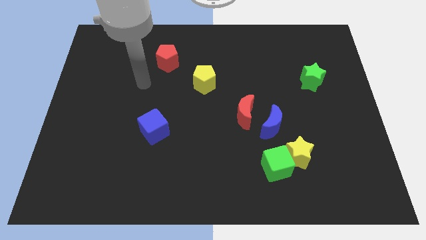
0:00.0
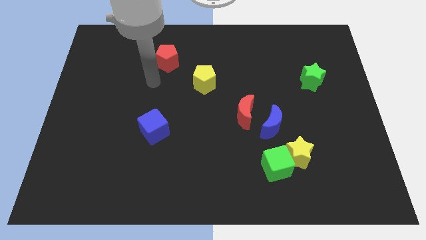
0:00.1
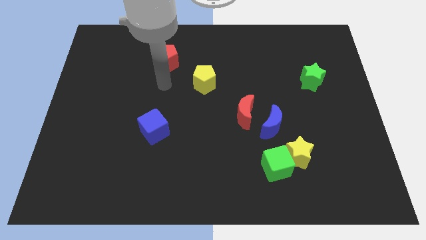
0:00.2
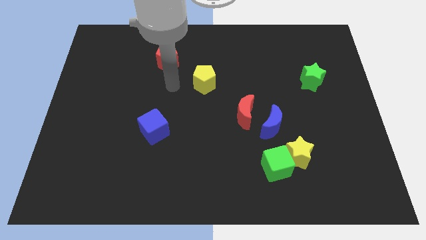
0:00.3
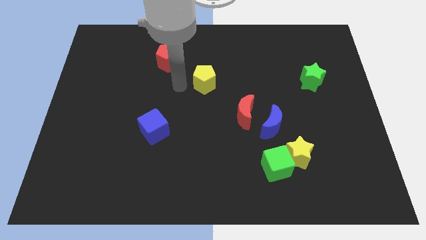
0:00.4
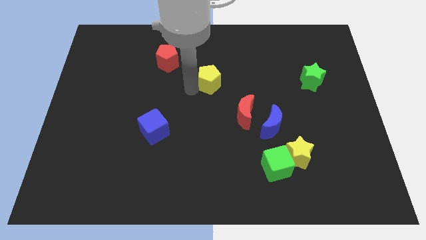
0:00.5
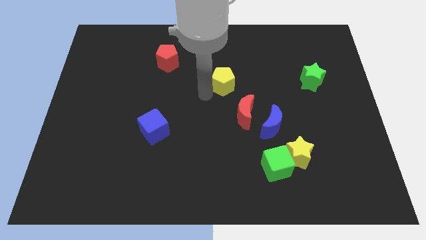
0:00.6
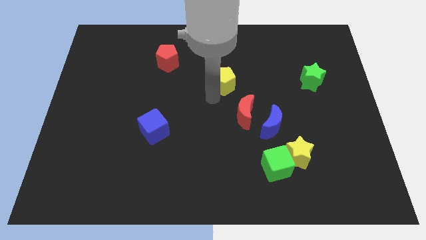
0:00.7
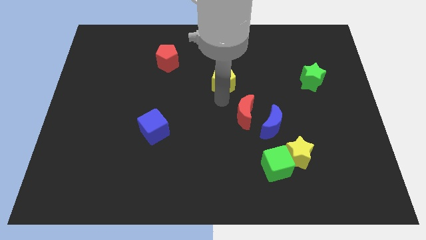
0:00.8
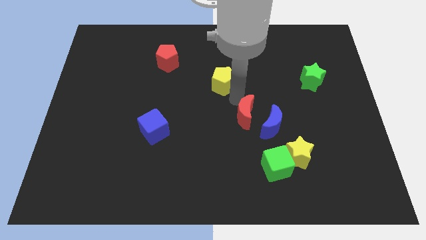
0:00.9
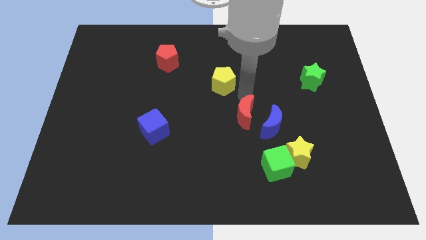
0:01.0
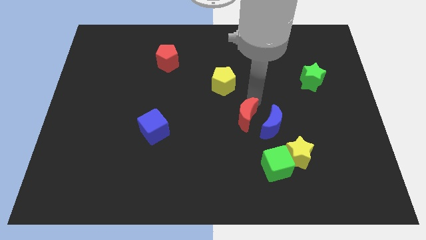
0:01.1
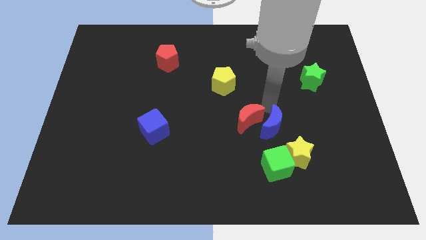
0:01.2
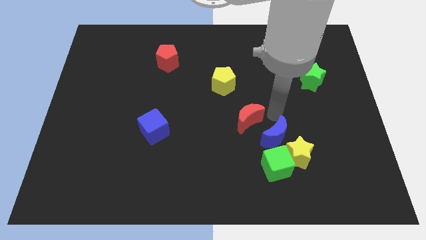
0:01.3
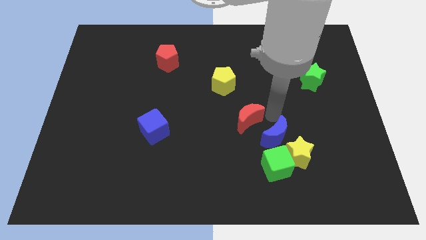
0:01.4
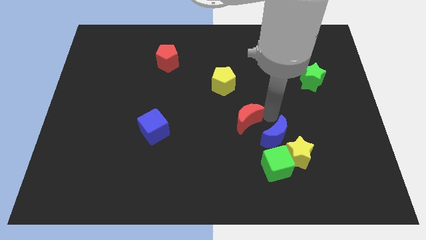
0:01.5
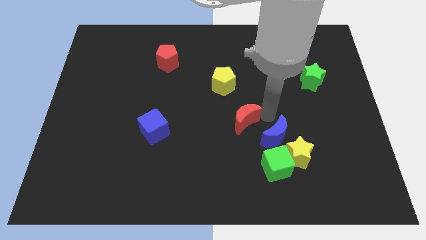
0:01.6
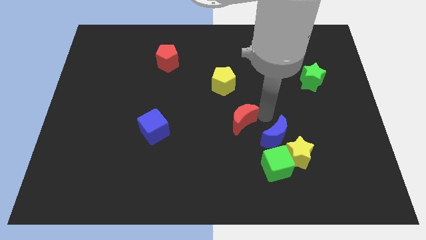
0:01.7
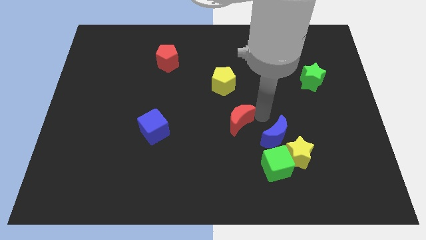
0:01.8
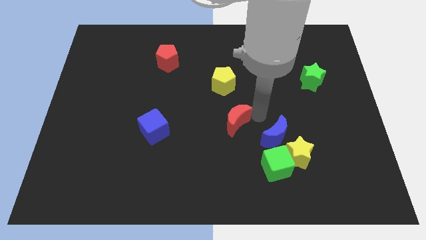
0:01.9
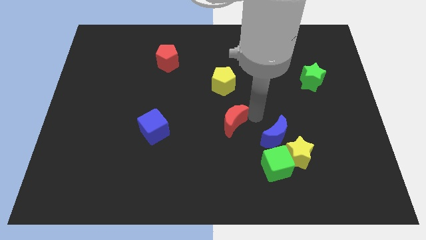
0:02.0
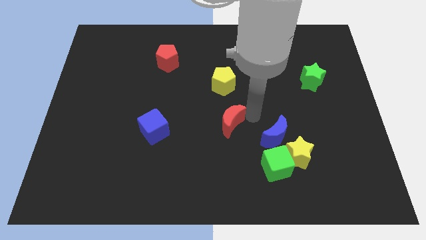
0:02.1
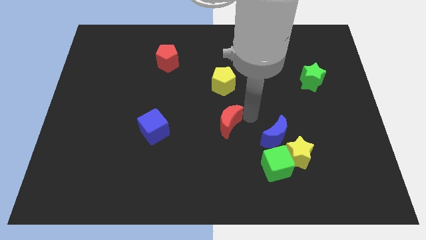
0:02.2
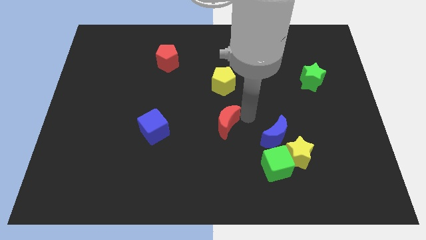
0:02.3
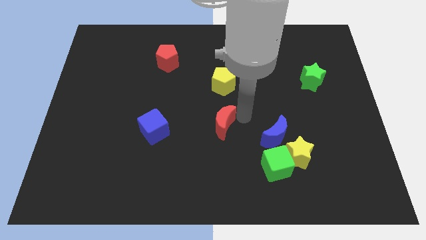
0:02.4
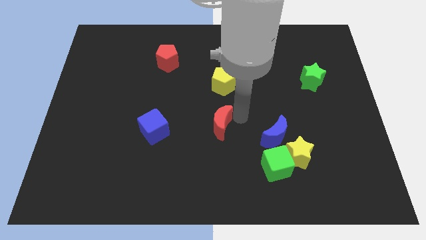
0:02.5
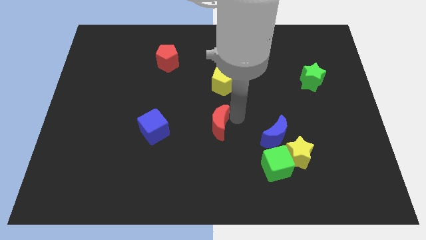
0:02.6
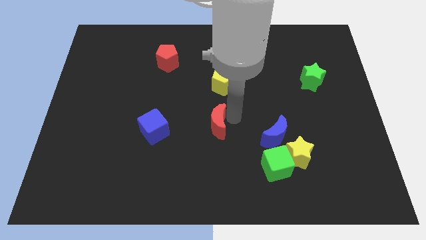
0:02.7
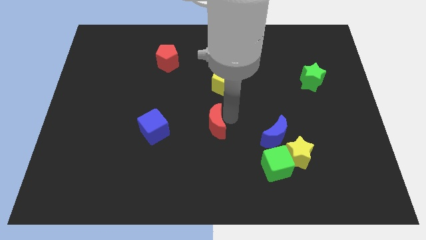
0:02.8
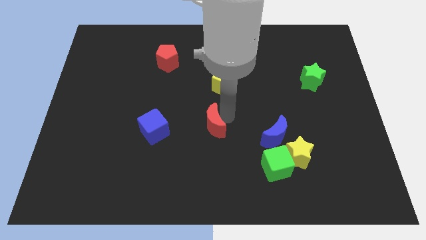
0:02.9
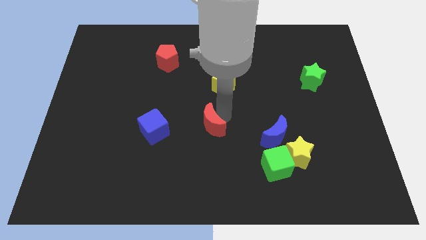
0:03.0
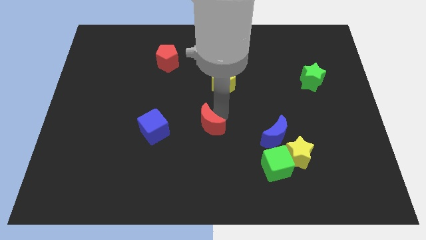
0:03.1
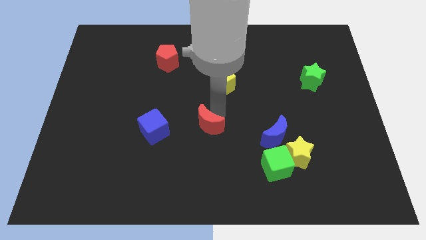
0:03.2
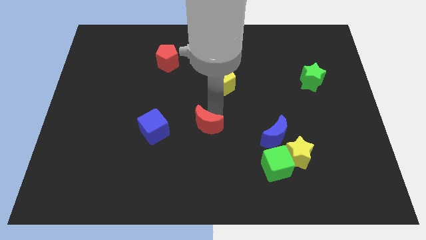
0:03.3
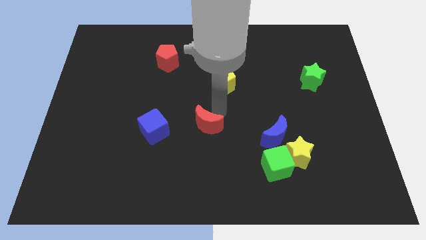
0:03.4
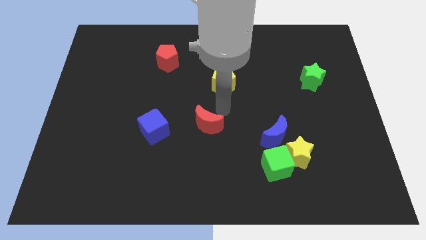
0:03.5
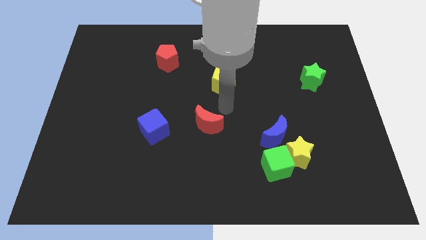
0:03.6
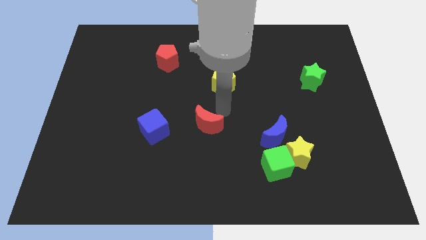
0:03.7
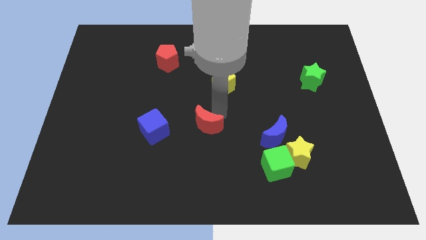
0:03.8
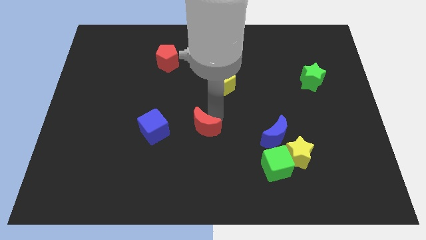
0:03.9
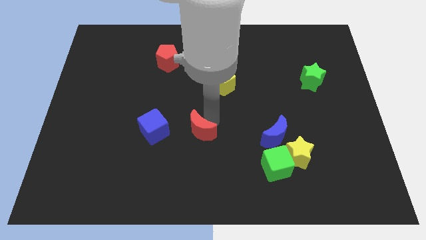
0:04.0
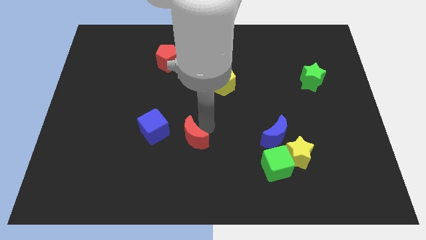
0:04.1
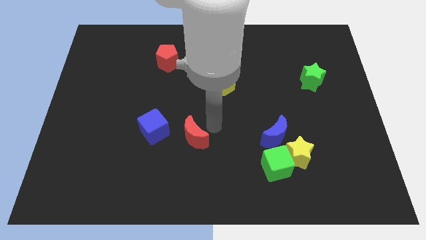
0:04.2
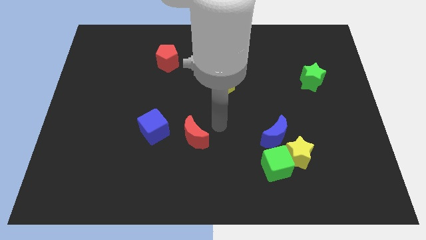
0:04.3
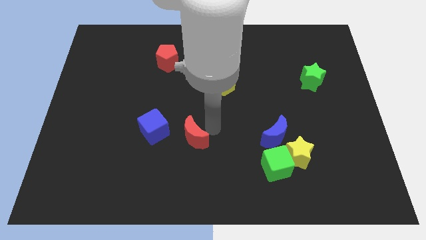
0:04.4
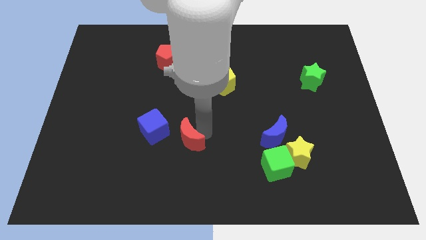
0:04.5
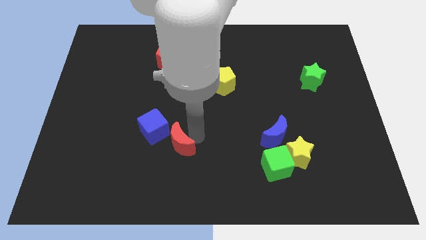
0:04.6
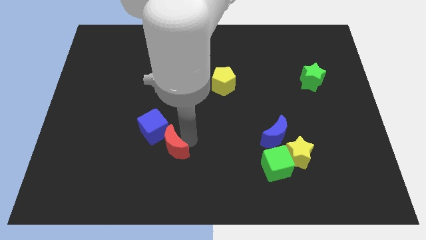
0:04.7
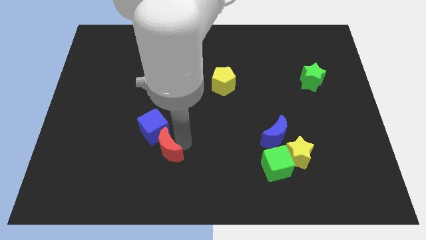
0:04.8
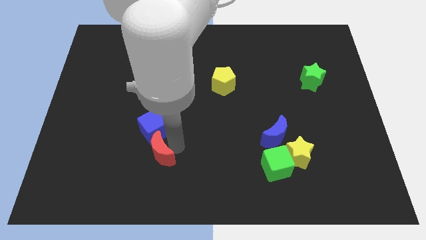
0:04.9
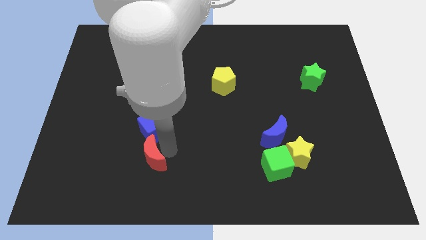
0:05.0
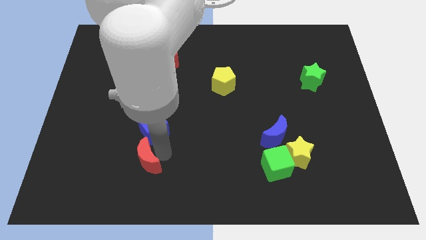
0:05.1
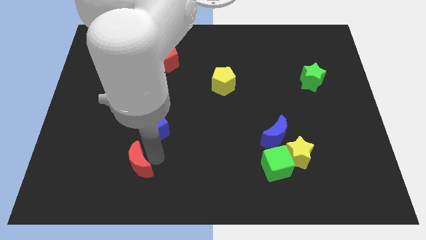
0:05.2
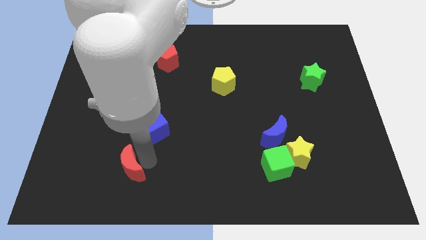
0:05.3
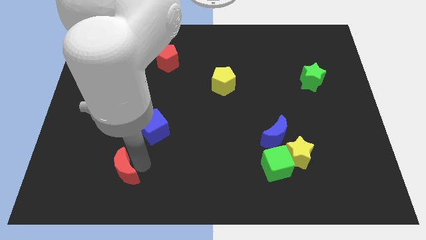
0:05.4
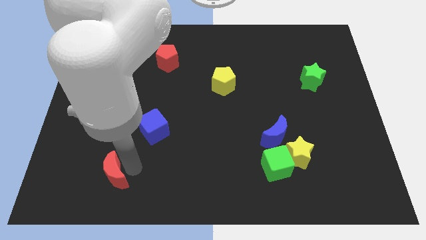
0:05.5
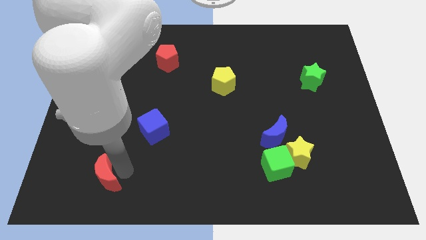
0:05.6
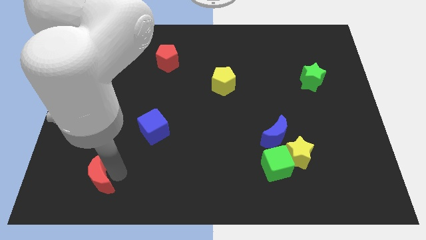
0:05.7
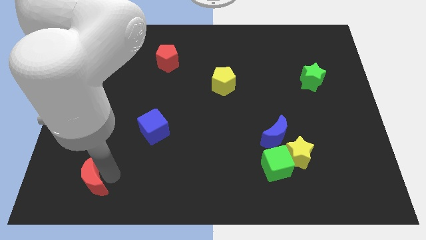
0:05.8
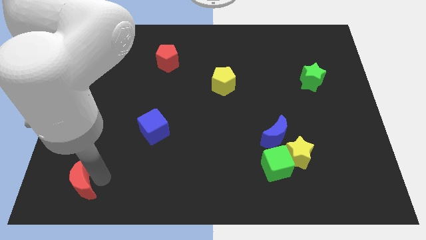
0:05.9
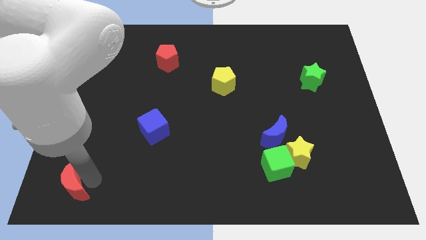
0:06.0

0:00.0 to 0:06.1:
move the red moon to the bottom left

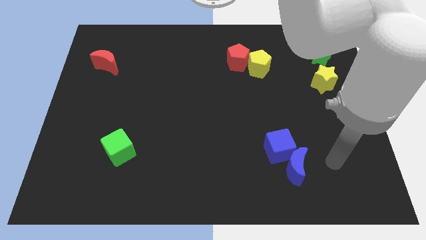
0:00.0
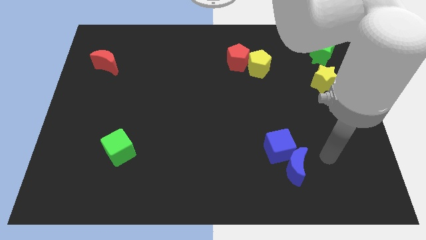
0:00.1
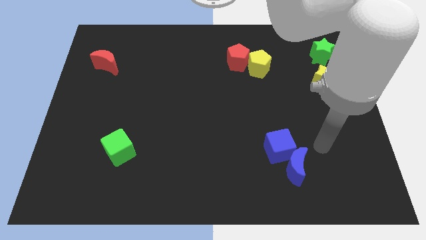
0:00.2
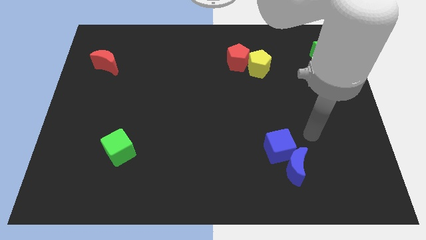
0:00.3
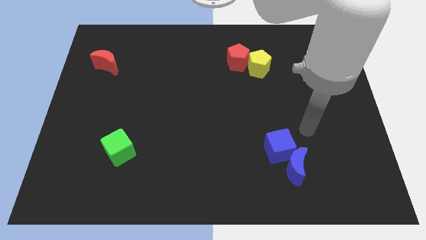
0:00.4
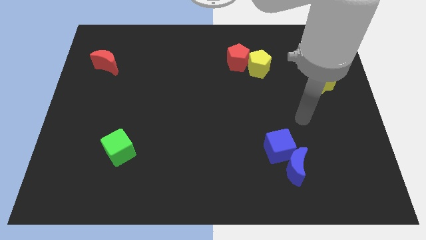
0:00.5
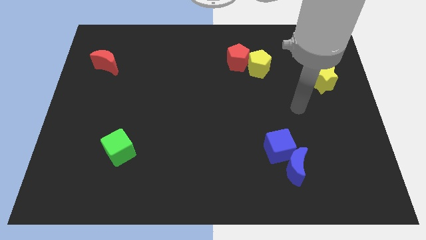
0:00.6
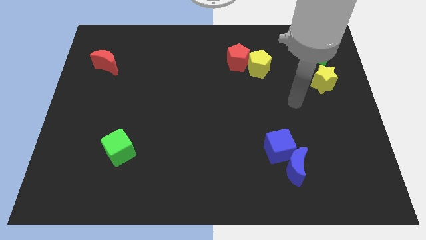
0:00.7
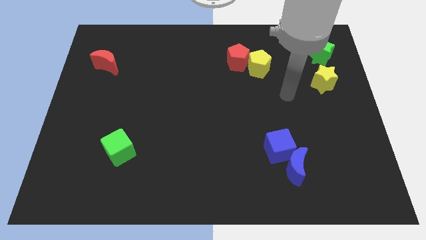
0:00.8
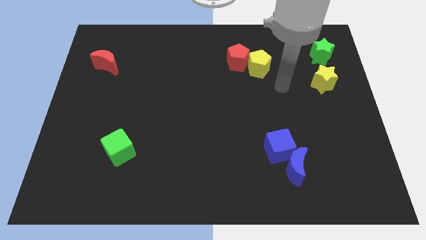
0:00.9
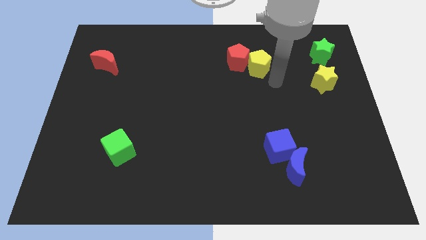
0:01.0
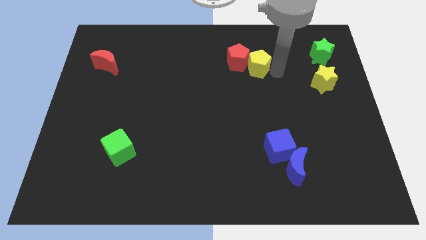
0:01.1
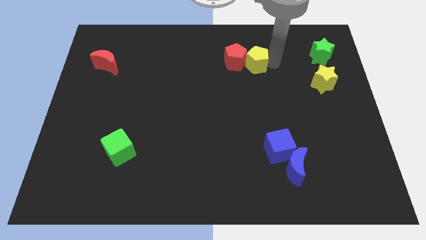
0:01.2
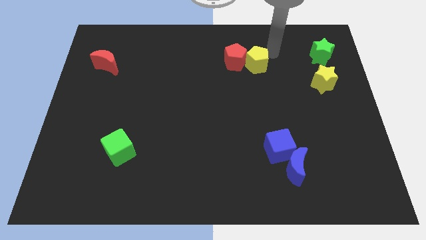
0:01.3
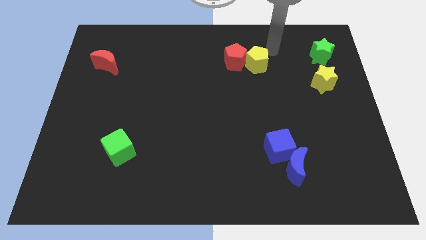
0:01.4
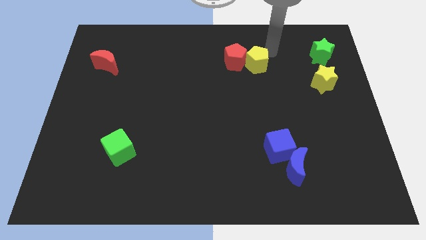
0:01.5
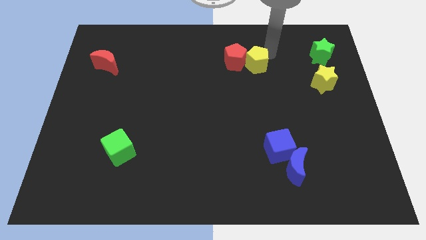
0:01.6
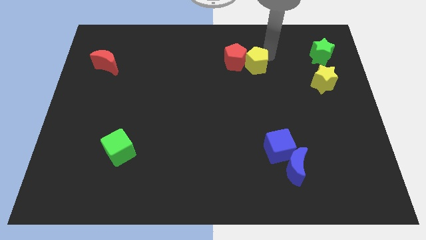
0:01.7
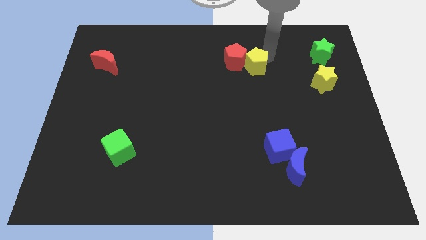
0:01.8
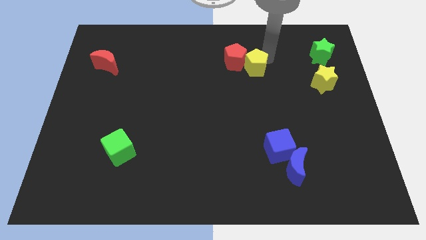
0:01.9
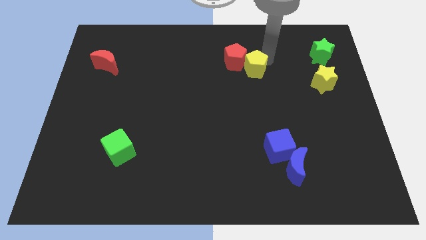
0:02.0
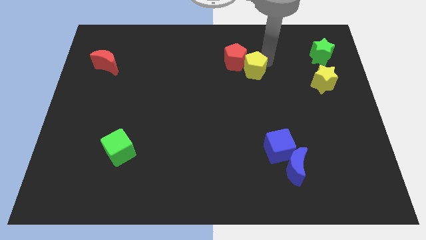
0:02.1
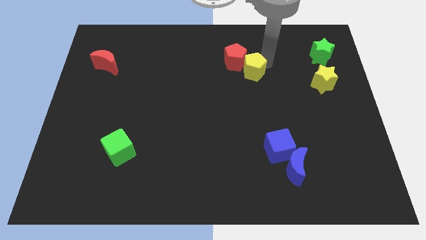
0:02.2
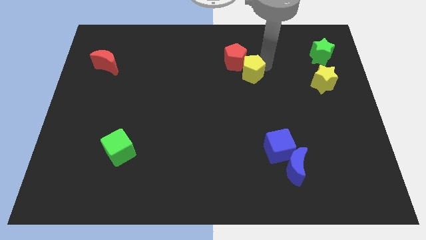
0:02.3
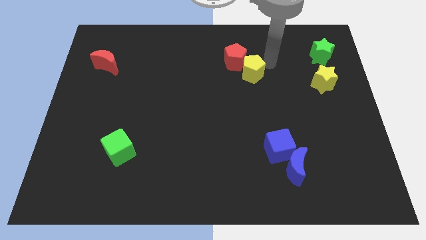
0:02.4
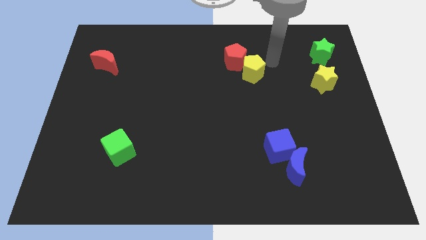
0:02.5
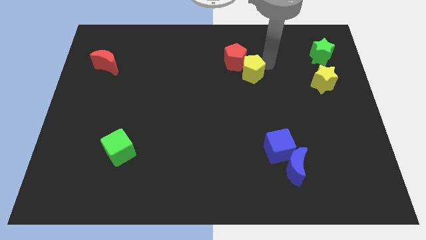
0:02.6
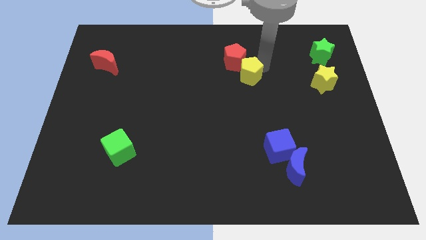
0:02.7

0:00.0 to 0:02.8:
move the yellow pentagon to the center
